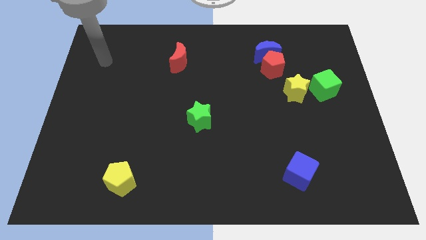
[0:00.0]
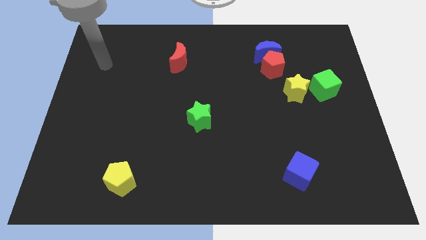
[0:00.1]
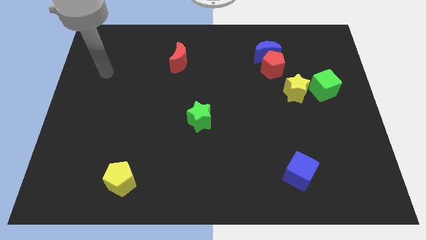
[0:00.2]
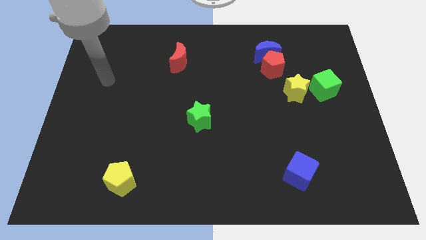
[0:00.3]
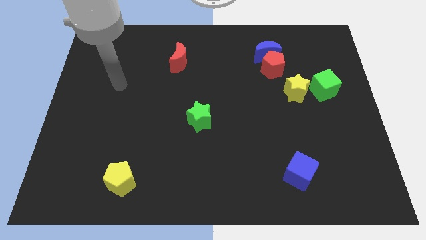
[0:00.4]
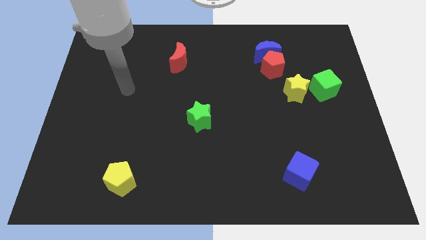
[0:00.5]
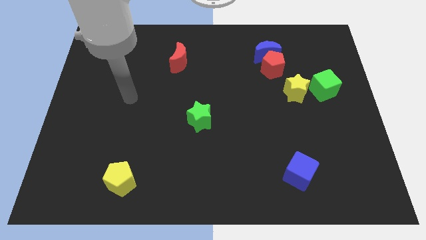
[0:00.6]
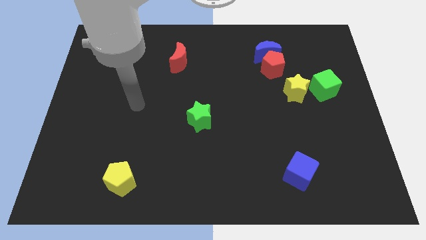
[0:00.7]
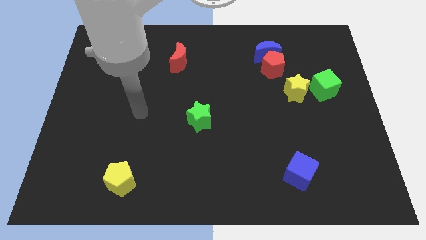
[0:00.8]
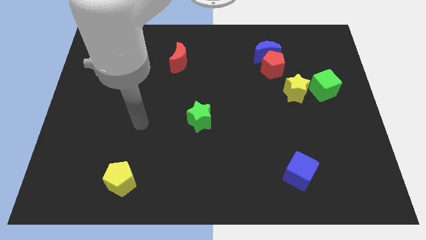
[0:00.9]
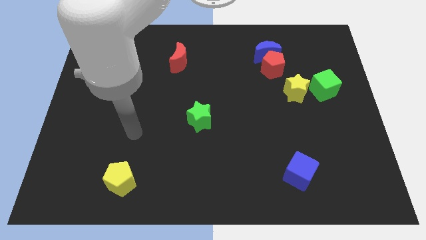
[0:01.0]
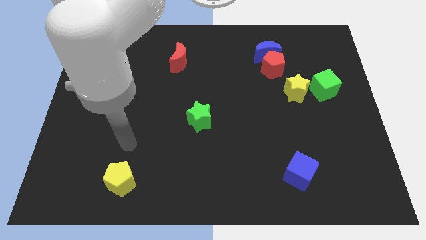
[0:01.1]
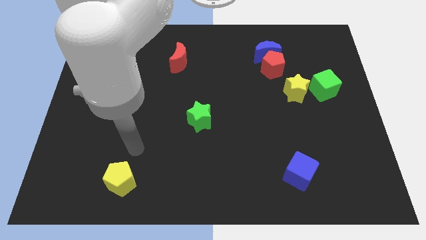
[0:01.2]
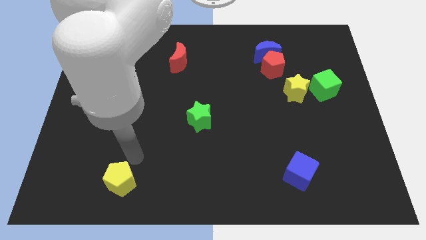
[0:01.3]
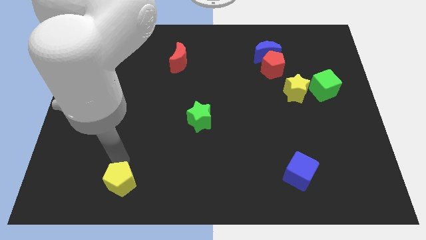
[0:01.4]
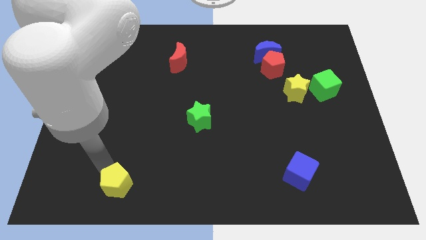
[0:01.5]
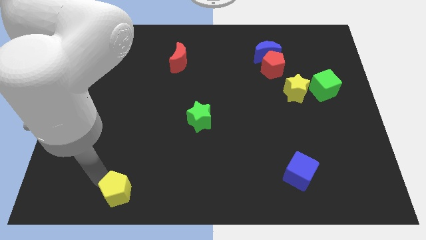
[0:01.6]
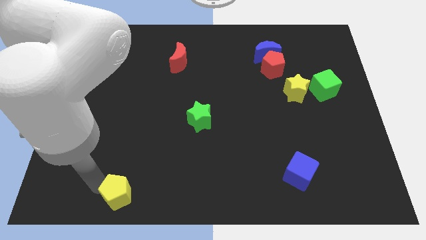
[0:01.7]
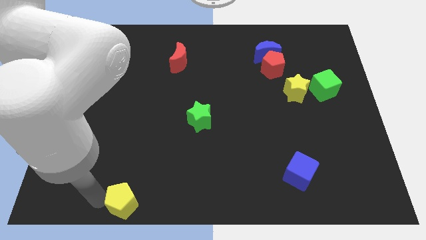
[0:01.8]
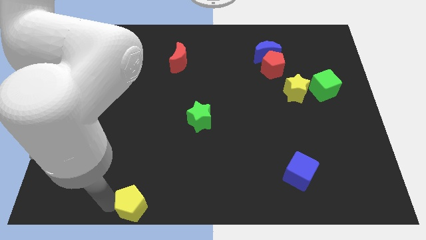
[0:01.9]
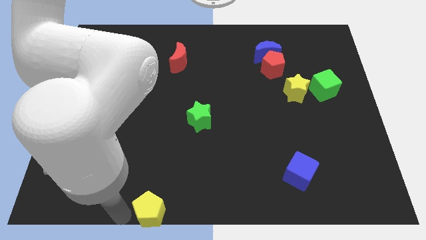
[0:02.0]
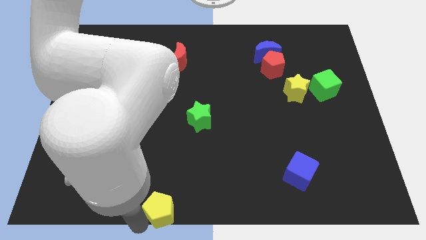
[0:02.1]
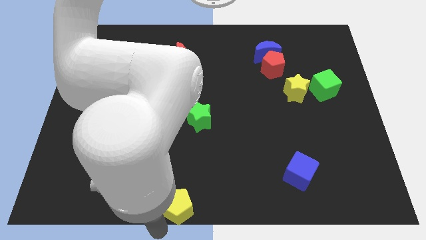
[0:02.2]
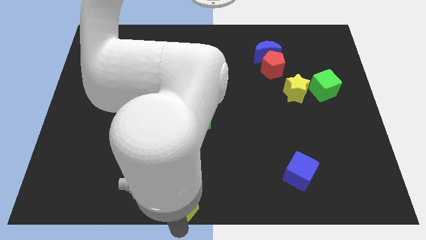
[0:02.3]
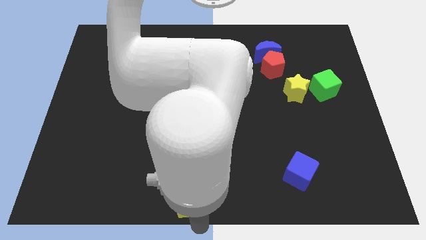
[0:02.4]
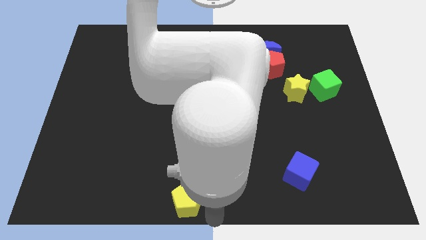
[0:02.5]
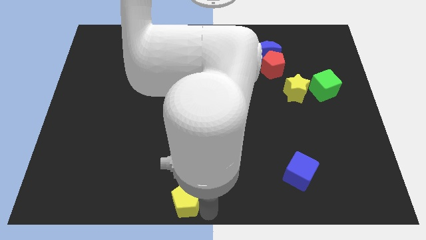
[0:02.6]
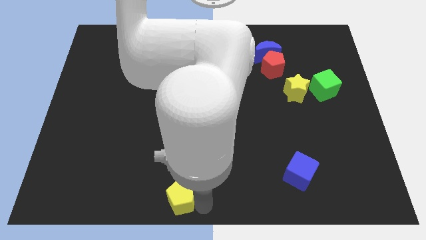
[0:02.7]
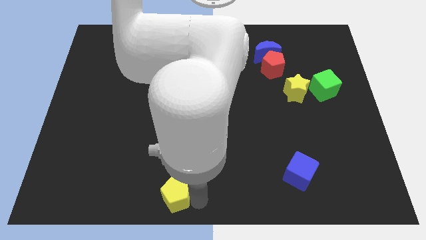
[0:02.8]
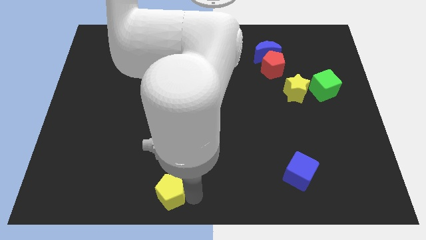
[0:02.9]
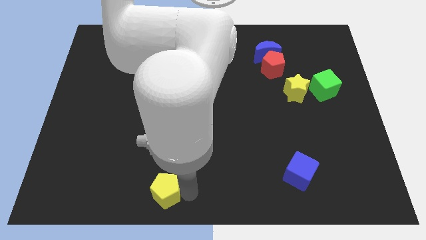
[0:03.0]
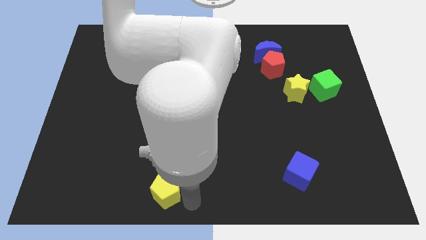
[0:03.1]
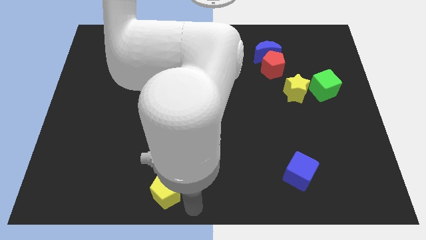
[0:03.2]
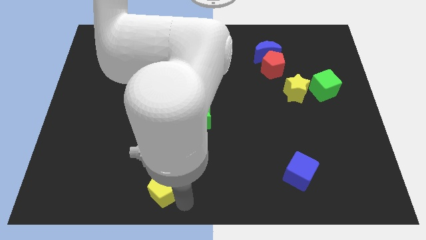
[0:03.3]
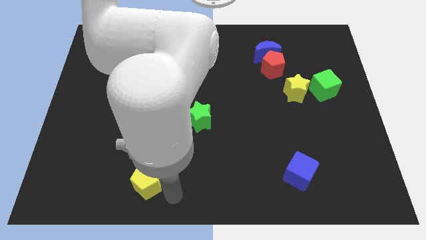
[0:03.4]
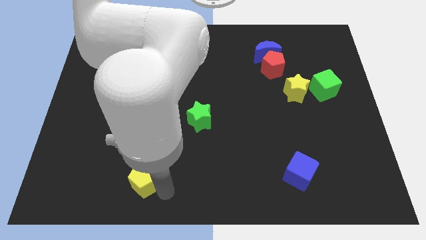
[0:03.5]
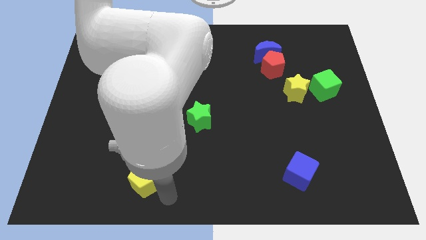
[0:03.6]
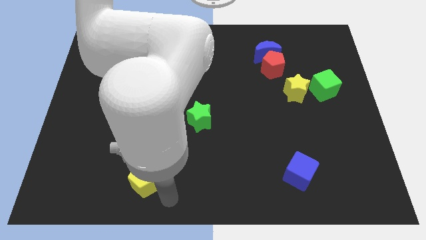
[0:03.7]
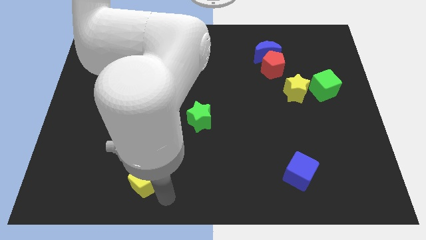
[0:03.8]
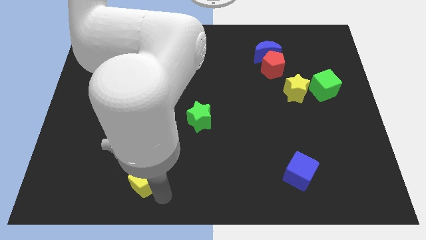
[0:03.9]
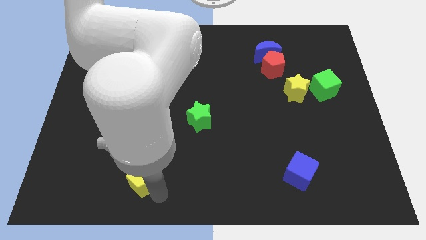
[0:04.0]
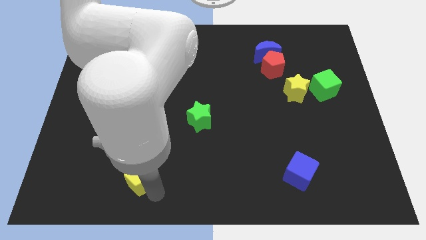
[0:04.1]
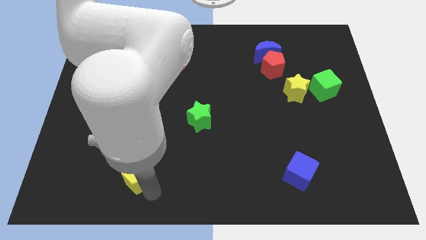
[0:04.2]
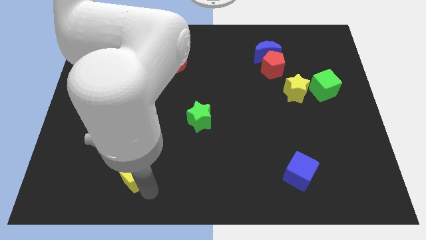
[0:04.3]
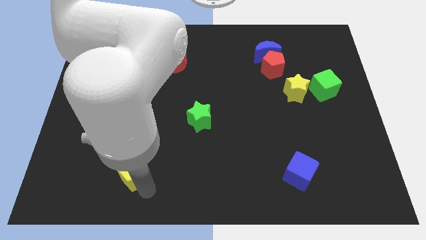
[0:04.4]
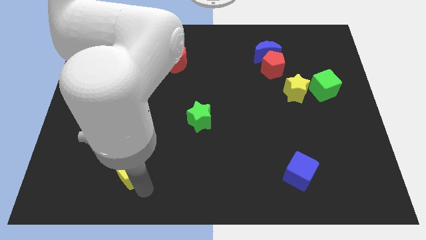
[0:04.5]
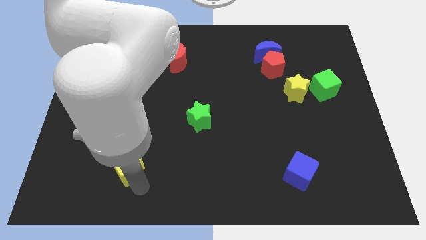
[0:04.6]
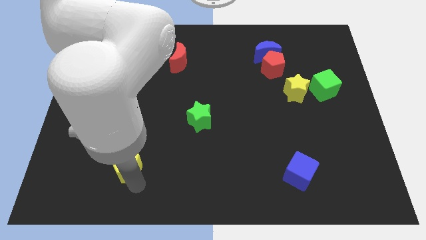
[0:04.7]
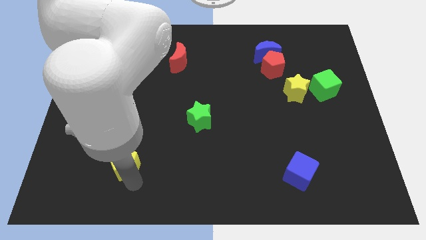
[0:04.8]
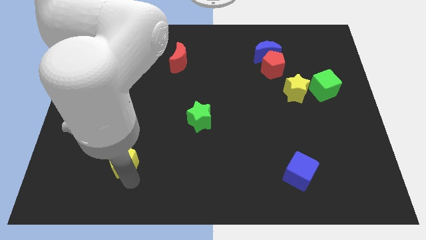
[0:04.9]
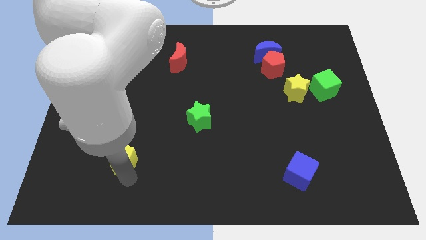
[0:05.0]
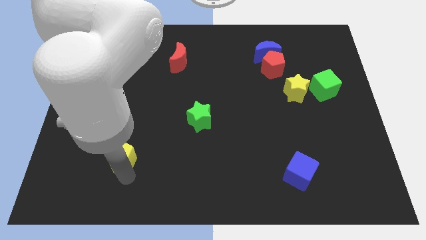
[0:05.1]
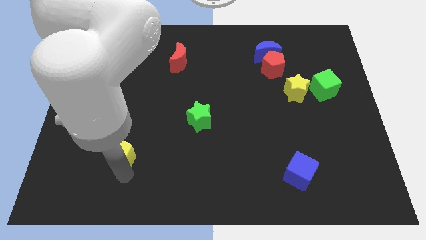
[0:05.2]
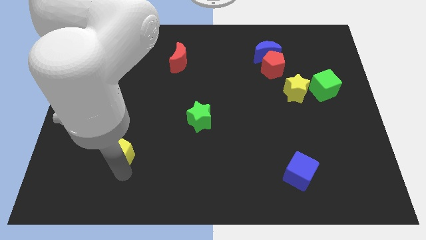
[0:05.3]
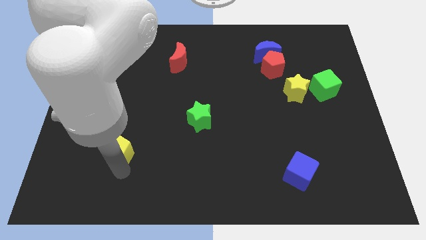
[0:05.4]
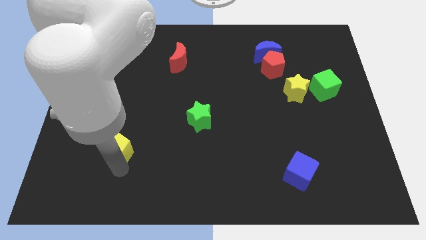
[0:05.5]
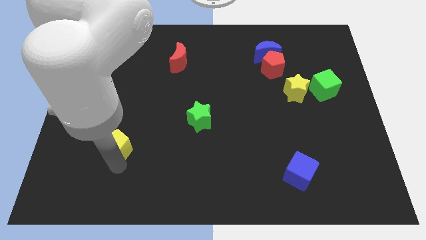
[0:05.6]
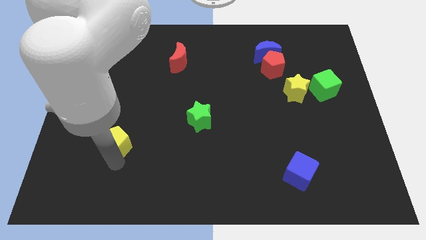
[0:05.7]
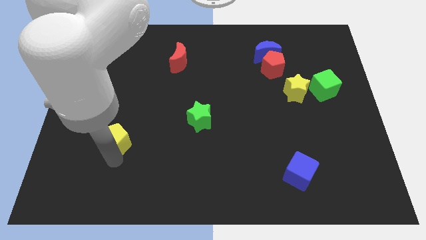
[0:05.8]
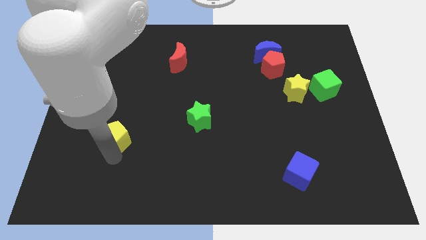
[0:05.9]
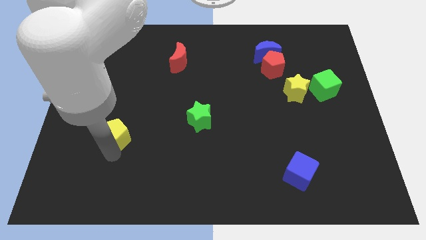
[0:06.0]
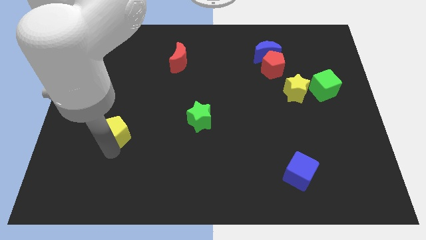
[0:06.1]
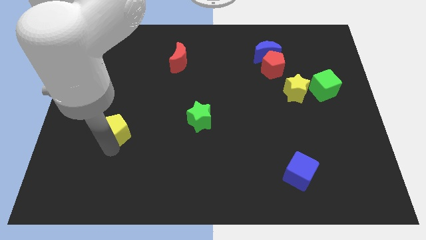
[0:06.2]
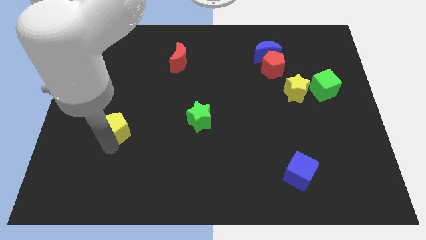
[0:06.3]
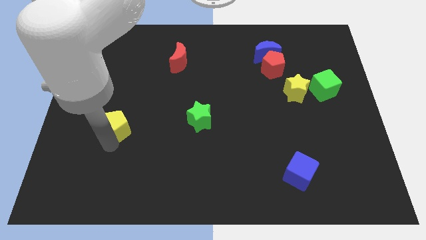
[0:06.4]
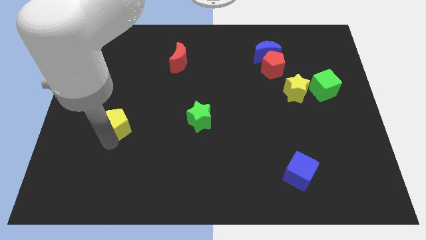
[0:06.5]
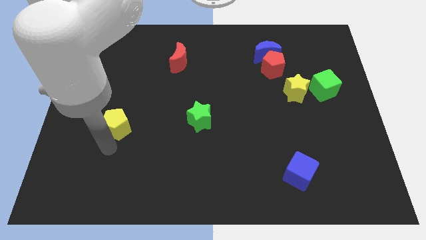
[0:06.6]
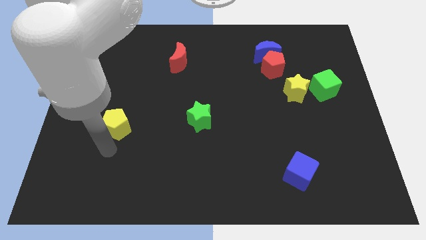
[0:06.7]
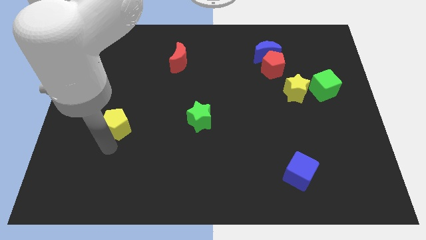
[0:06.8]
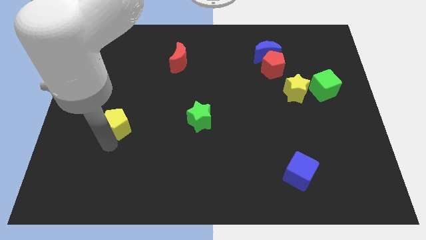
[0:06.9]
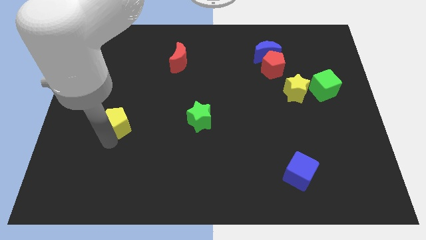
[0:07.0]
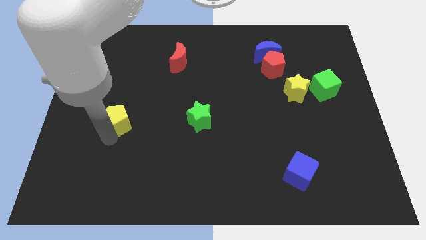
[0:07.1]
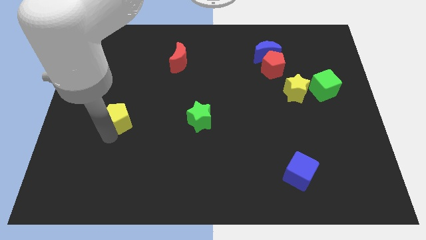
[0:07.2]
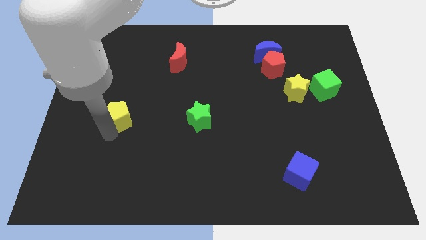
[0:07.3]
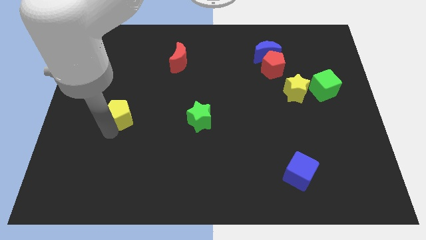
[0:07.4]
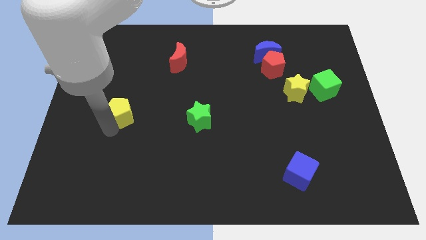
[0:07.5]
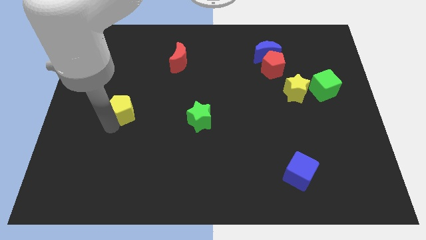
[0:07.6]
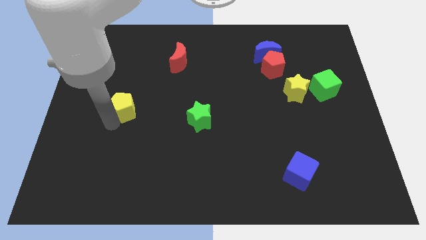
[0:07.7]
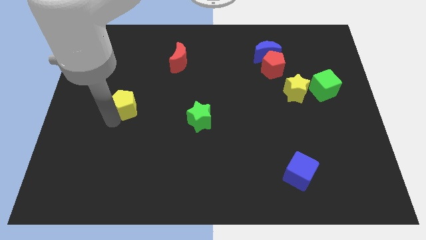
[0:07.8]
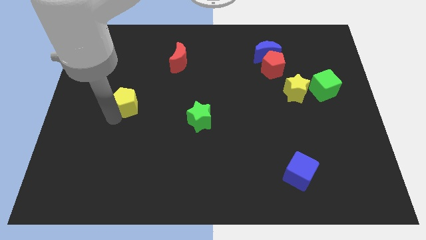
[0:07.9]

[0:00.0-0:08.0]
push the yellow pentagon up

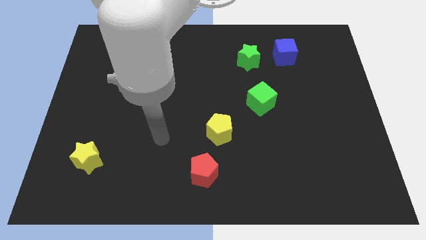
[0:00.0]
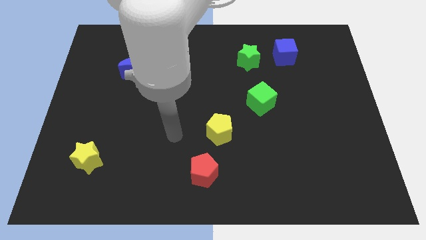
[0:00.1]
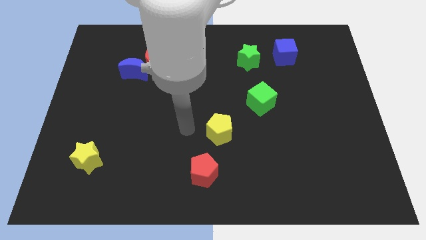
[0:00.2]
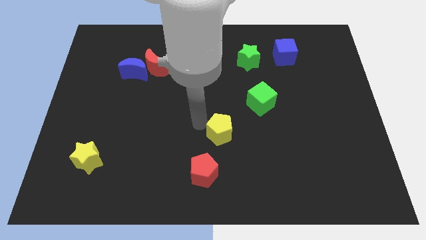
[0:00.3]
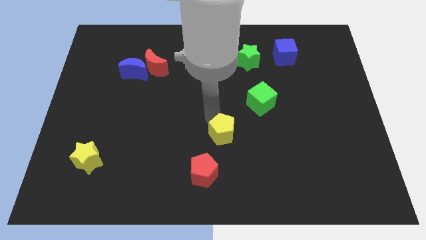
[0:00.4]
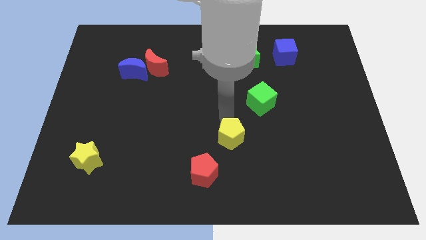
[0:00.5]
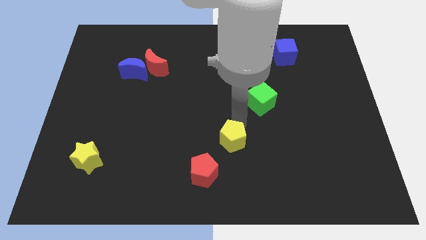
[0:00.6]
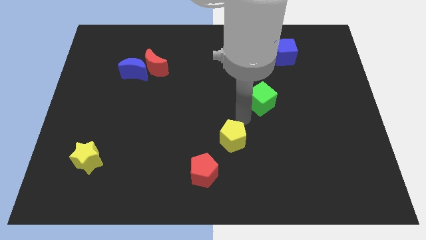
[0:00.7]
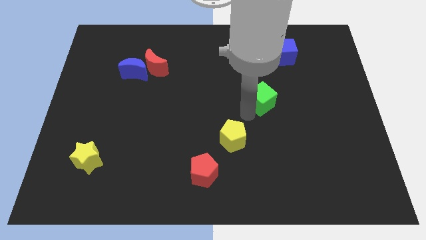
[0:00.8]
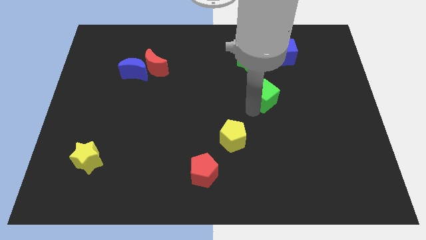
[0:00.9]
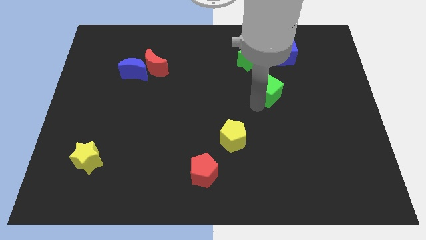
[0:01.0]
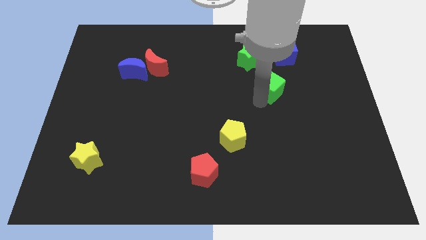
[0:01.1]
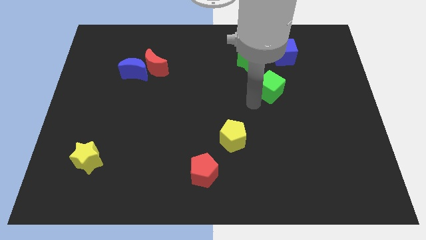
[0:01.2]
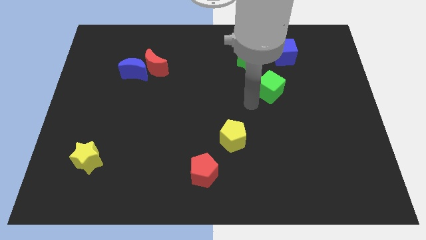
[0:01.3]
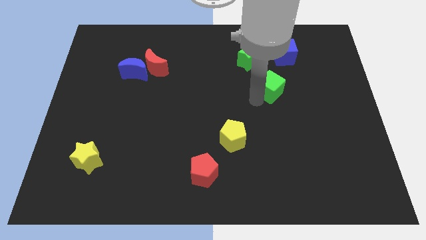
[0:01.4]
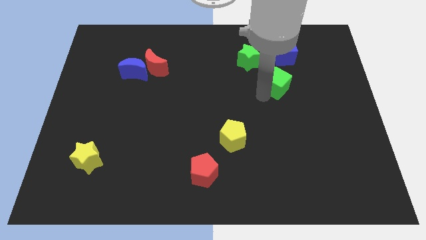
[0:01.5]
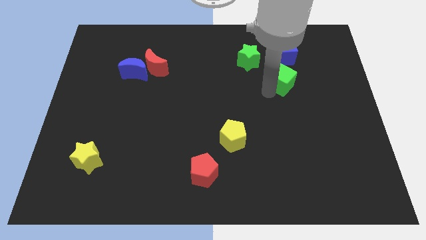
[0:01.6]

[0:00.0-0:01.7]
slightly slide the green cube up and to the right
